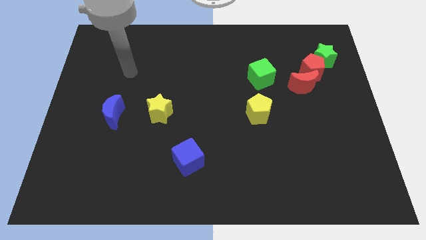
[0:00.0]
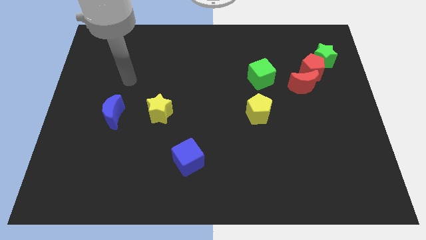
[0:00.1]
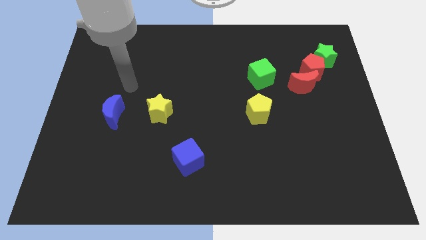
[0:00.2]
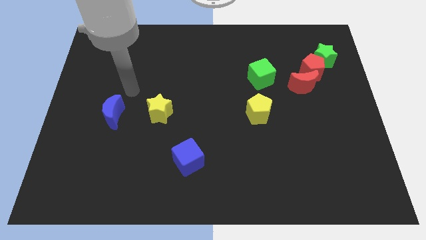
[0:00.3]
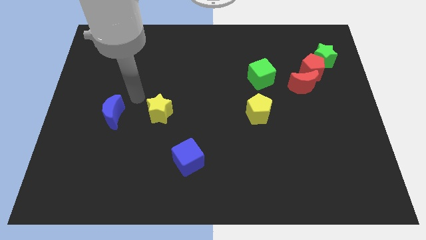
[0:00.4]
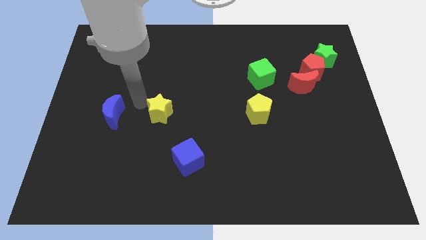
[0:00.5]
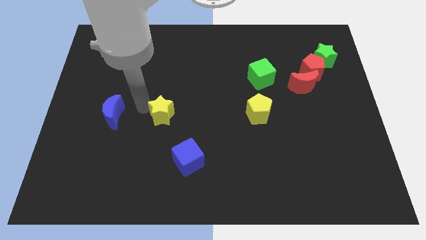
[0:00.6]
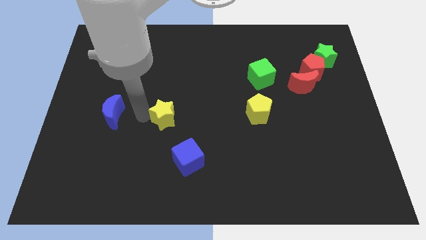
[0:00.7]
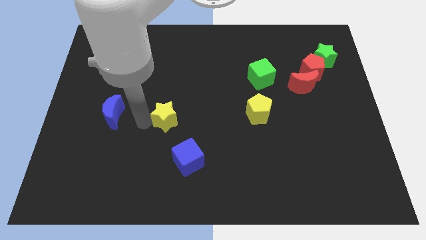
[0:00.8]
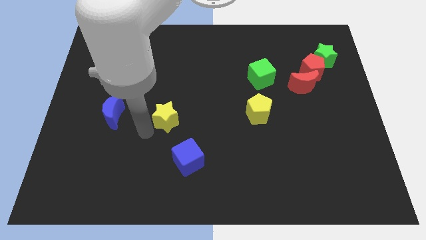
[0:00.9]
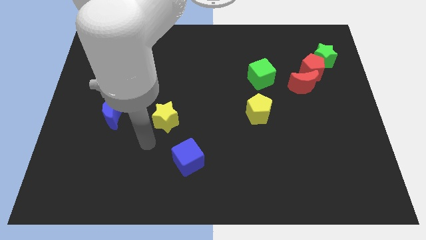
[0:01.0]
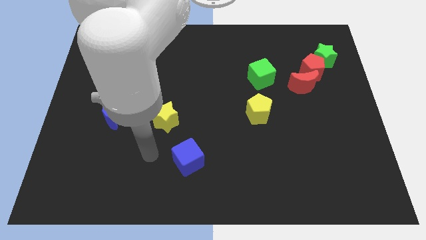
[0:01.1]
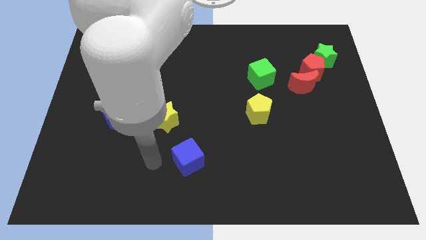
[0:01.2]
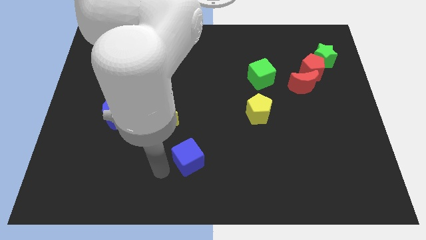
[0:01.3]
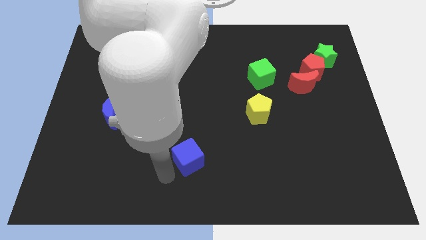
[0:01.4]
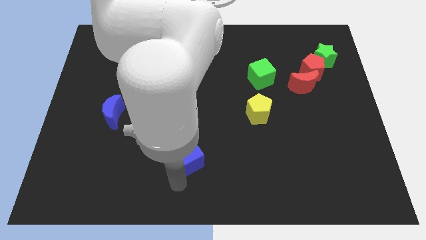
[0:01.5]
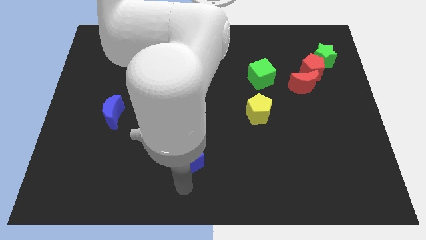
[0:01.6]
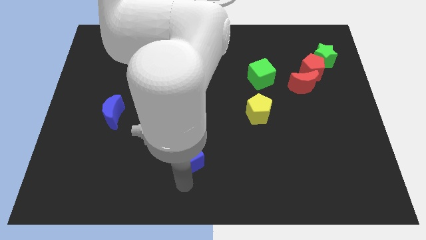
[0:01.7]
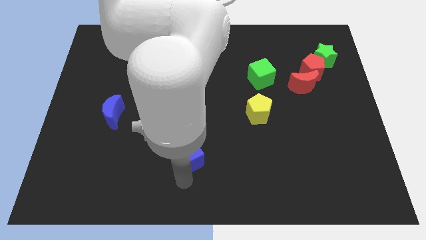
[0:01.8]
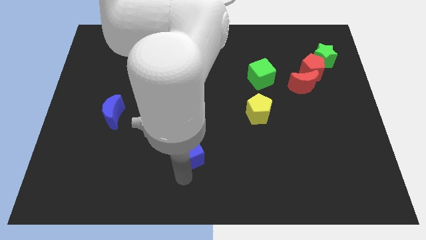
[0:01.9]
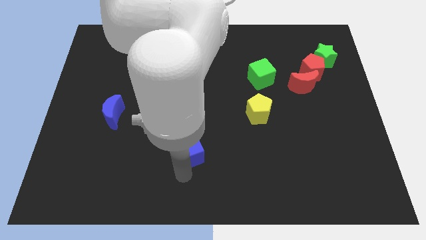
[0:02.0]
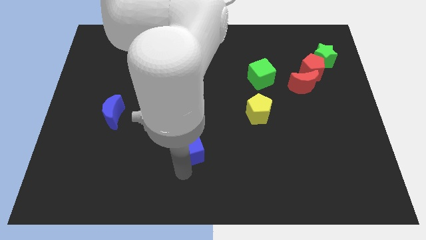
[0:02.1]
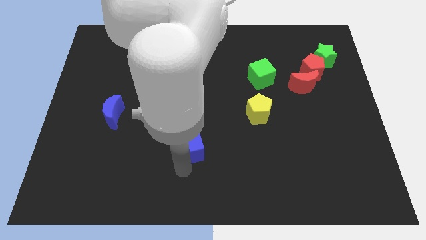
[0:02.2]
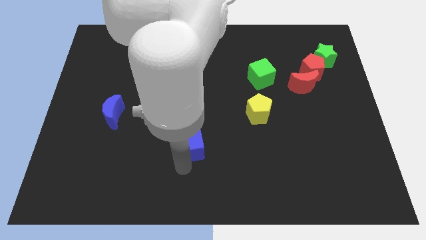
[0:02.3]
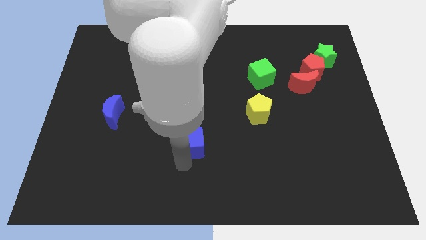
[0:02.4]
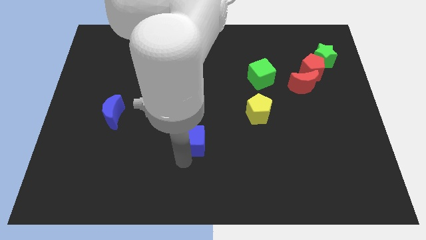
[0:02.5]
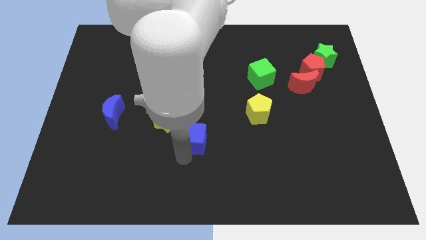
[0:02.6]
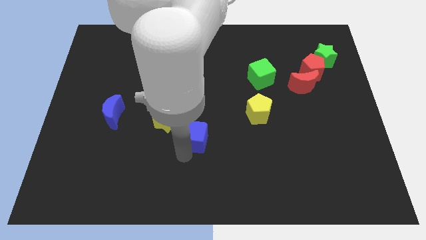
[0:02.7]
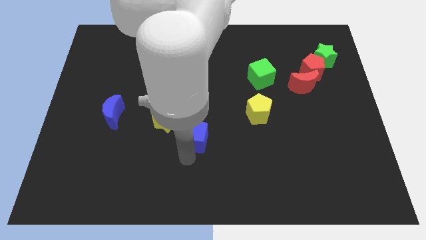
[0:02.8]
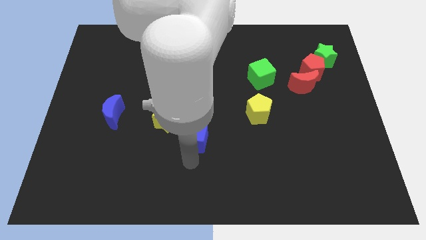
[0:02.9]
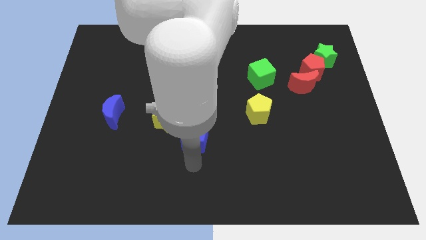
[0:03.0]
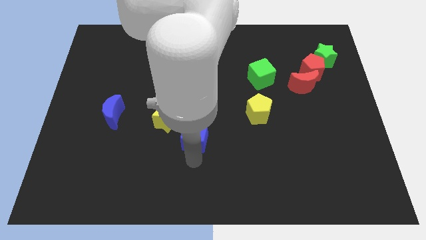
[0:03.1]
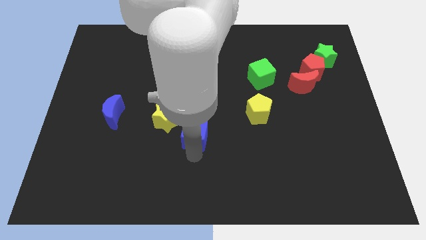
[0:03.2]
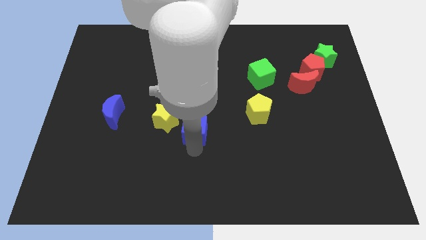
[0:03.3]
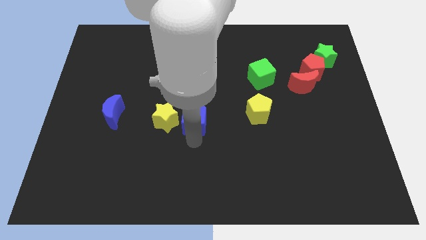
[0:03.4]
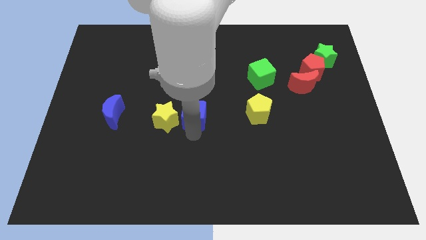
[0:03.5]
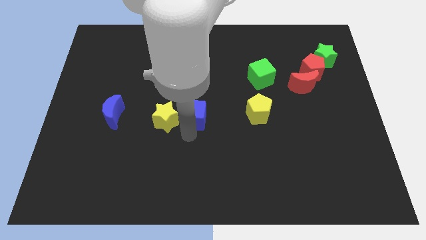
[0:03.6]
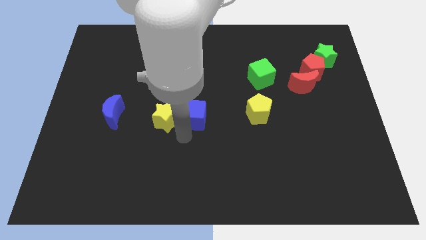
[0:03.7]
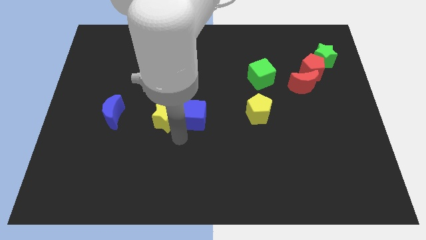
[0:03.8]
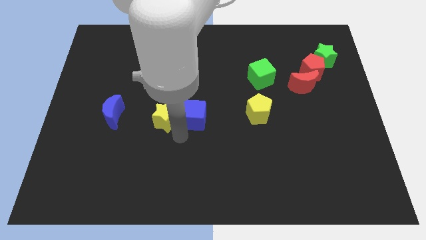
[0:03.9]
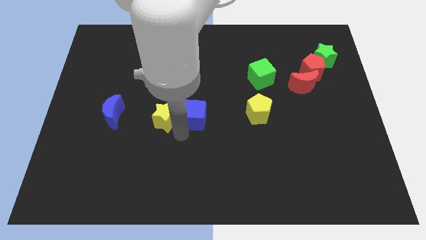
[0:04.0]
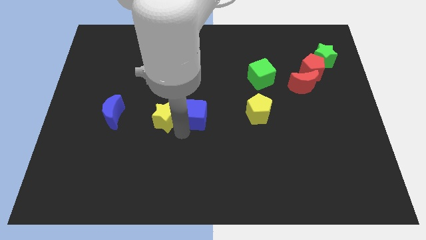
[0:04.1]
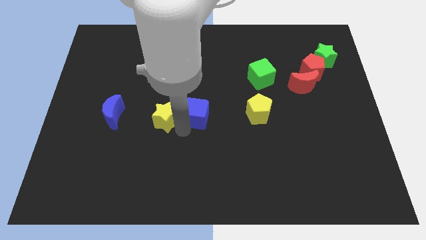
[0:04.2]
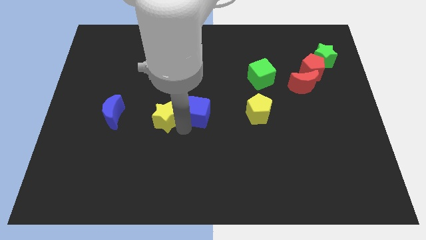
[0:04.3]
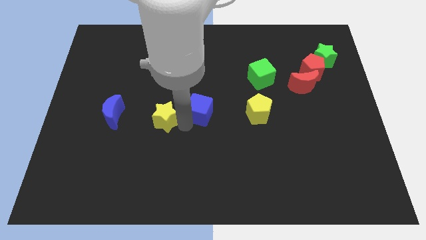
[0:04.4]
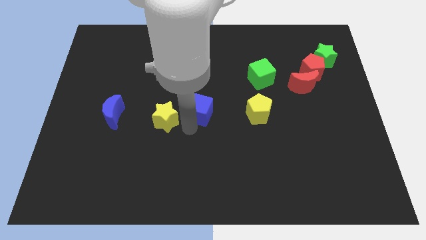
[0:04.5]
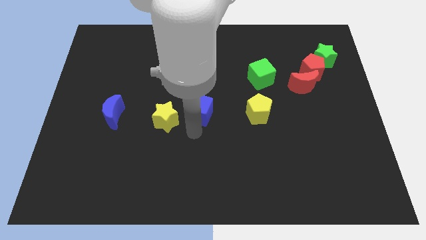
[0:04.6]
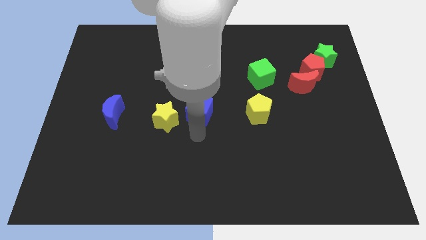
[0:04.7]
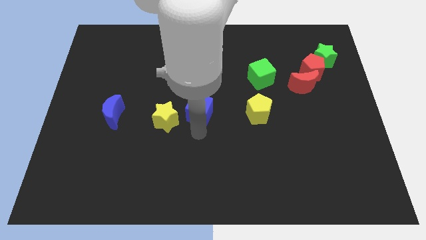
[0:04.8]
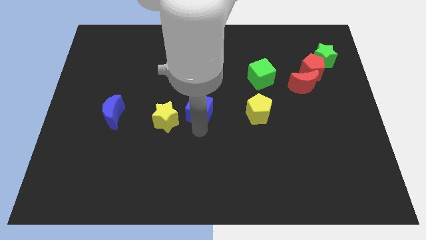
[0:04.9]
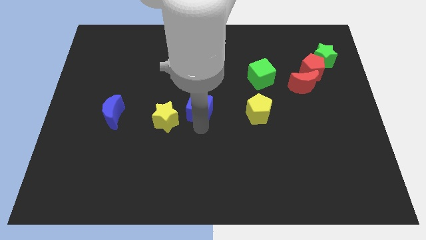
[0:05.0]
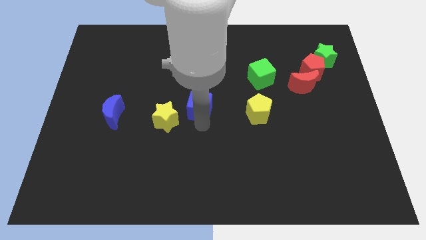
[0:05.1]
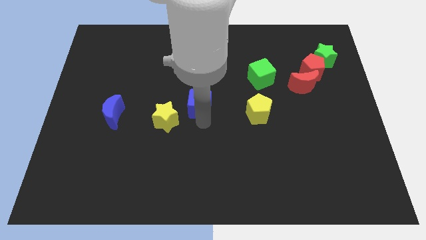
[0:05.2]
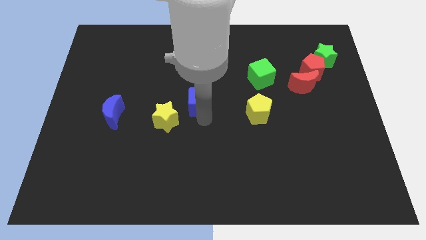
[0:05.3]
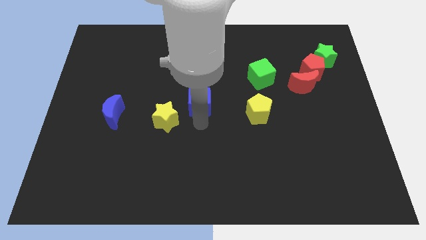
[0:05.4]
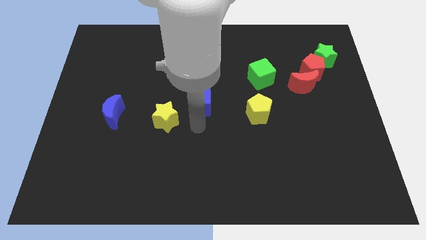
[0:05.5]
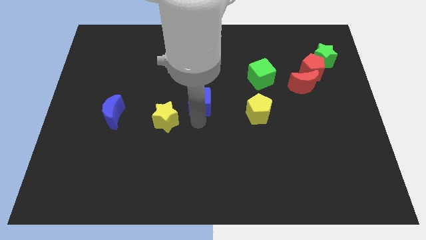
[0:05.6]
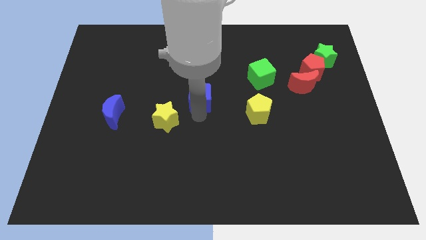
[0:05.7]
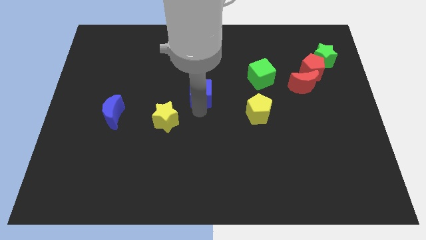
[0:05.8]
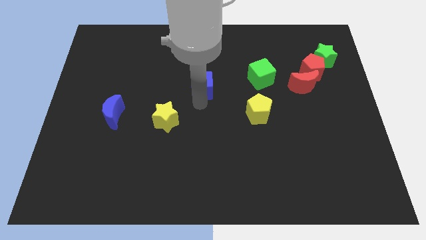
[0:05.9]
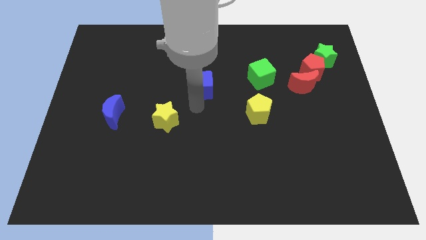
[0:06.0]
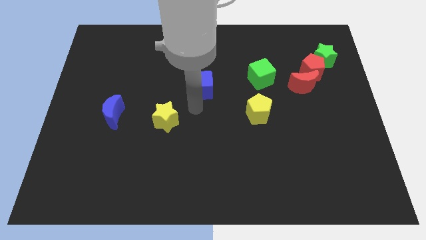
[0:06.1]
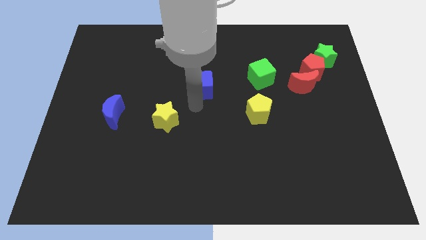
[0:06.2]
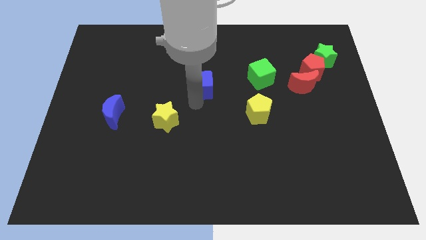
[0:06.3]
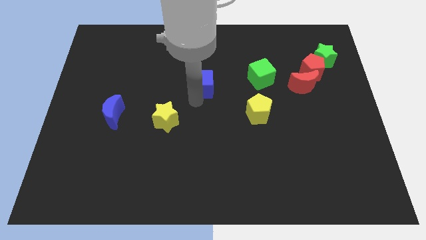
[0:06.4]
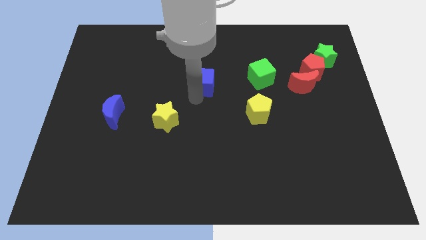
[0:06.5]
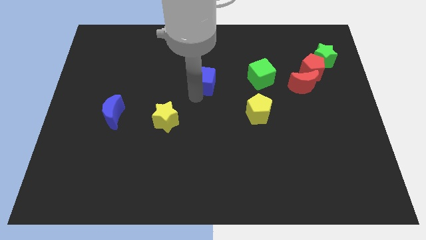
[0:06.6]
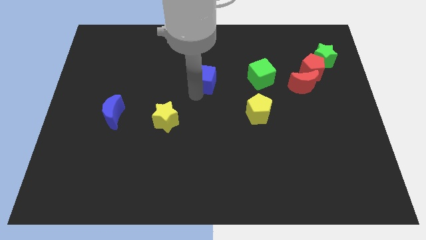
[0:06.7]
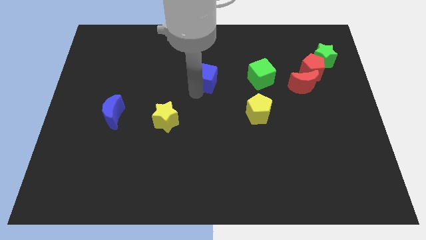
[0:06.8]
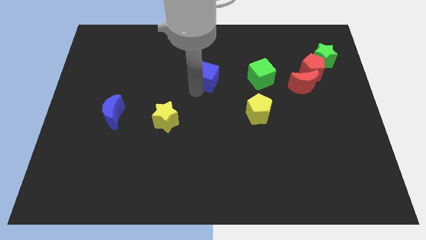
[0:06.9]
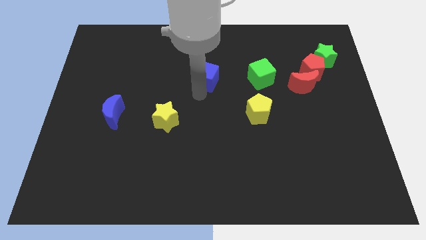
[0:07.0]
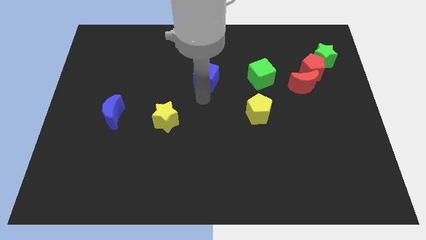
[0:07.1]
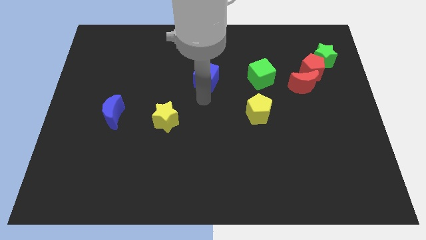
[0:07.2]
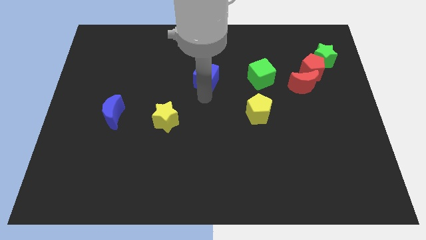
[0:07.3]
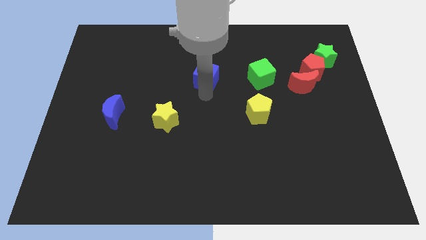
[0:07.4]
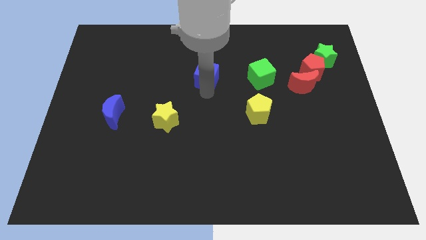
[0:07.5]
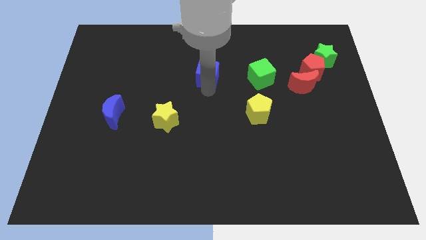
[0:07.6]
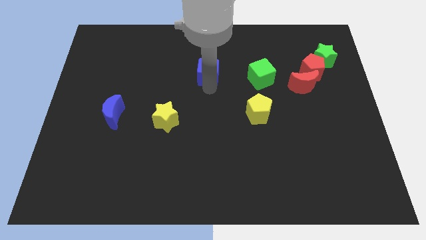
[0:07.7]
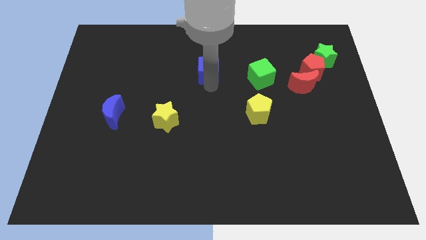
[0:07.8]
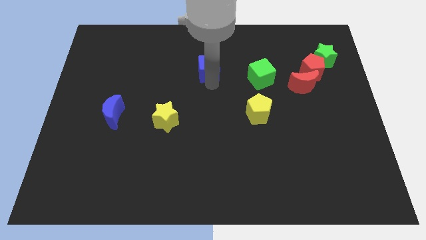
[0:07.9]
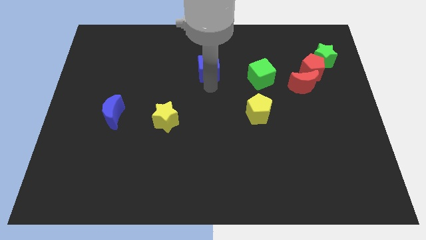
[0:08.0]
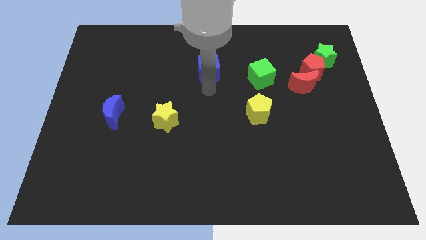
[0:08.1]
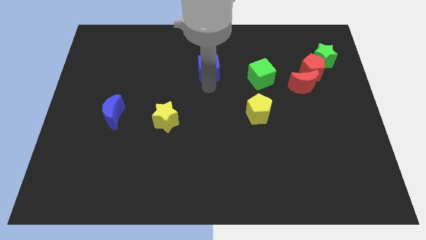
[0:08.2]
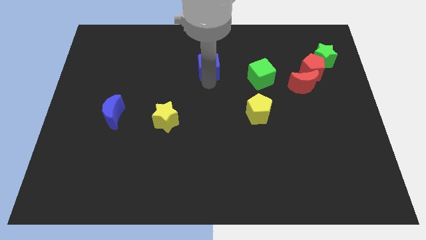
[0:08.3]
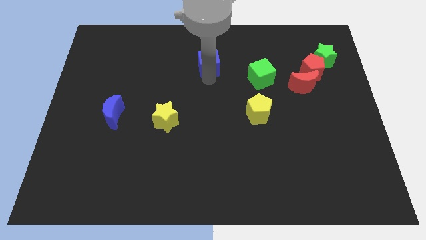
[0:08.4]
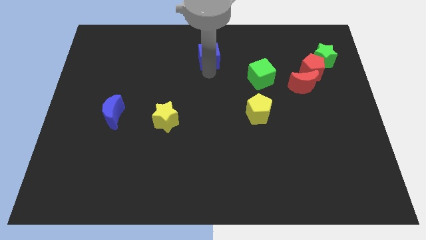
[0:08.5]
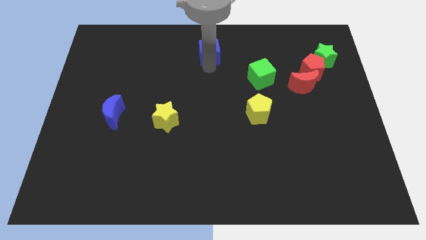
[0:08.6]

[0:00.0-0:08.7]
slide the blue cube to the towards your base
